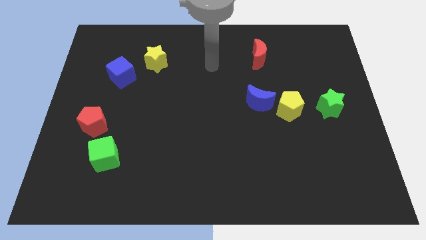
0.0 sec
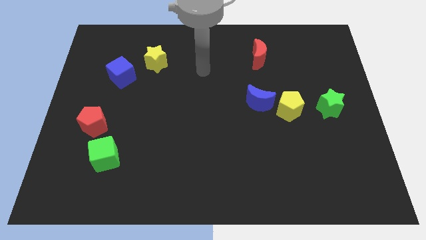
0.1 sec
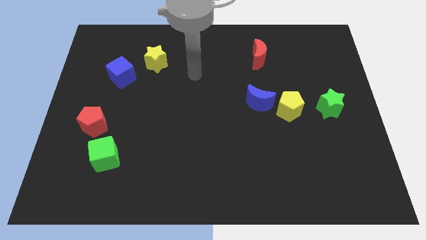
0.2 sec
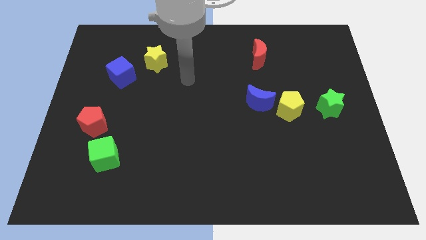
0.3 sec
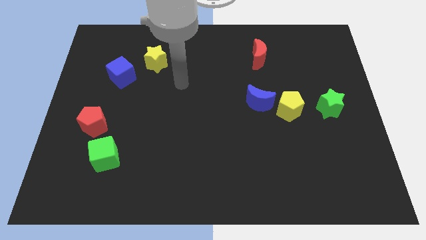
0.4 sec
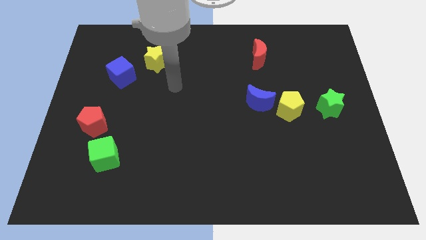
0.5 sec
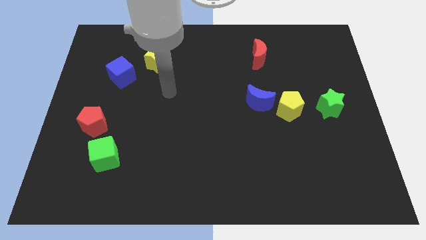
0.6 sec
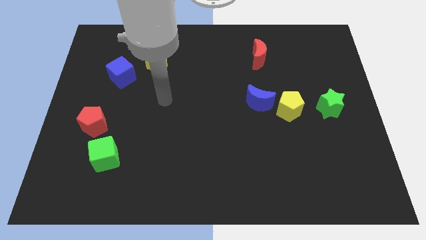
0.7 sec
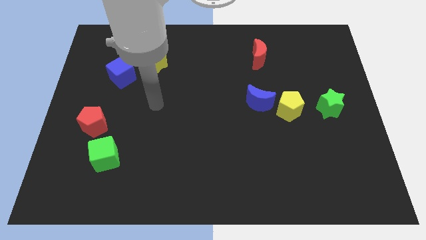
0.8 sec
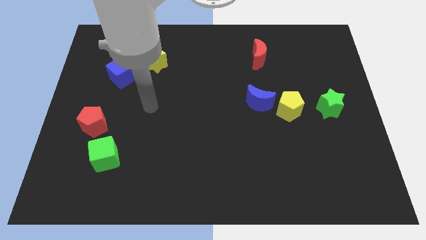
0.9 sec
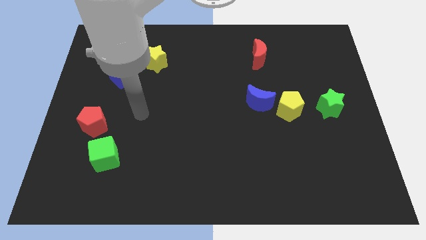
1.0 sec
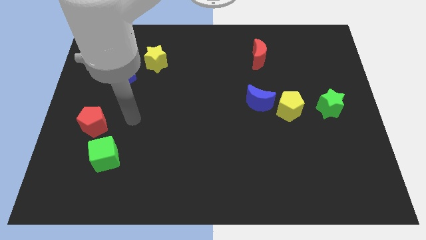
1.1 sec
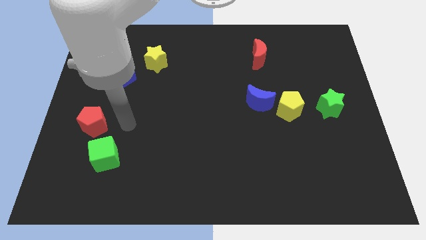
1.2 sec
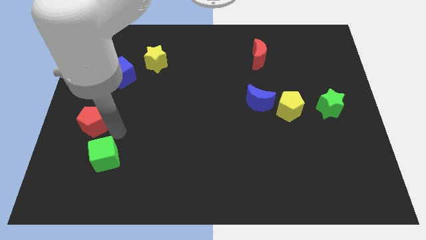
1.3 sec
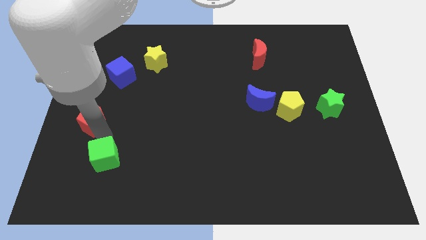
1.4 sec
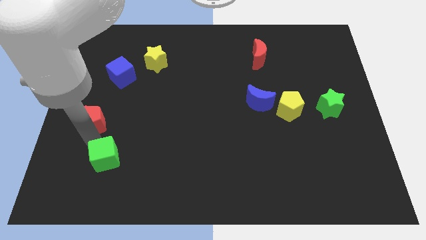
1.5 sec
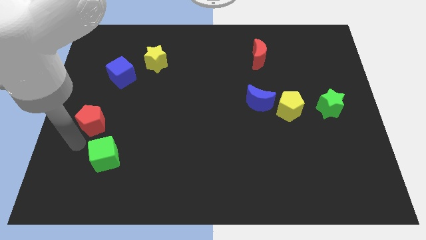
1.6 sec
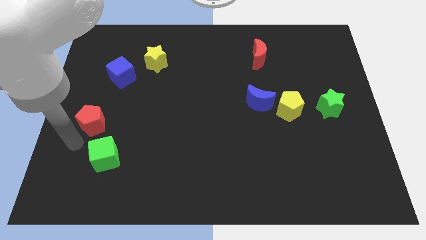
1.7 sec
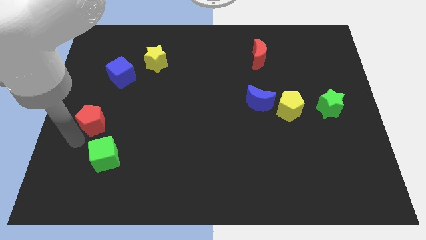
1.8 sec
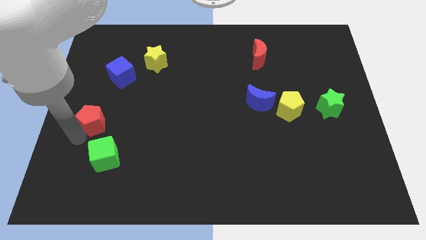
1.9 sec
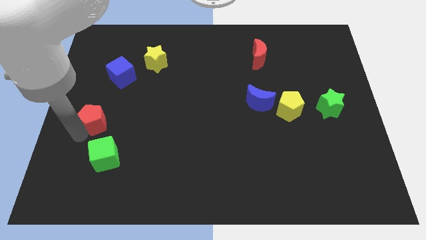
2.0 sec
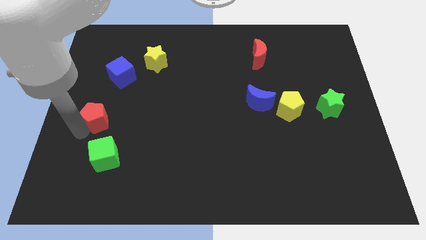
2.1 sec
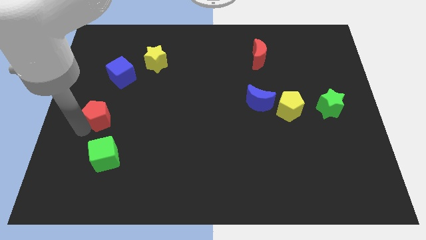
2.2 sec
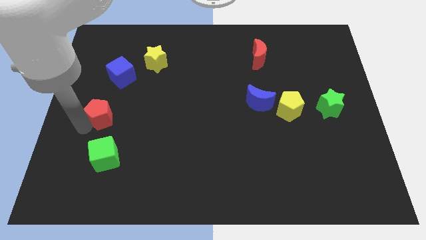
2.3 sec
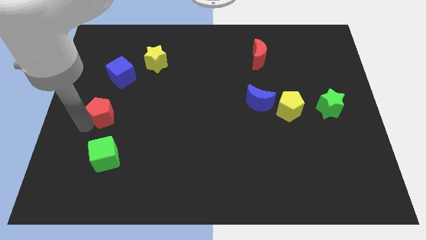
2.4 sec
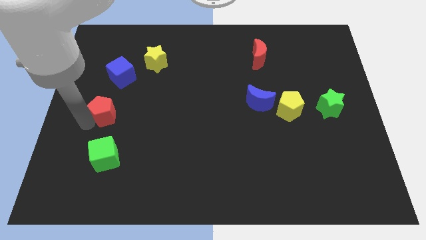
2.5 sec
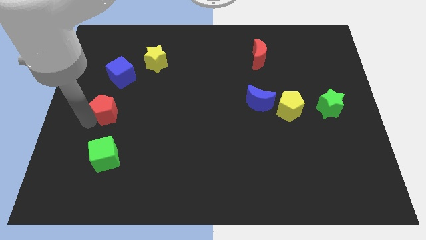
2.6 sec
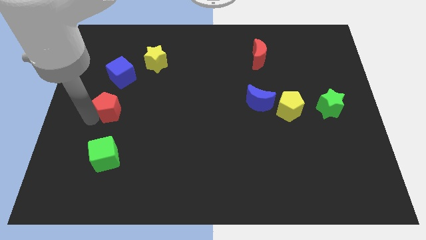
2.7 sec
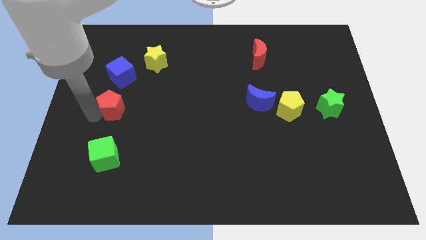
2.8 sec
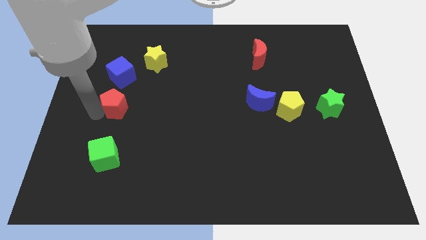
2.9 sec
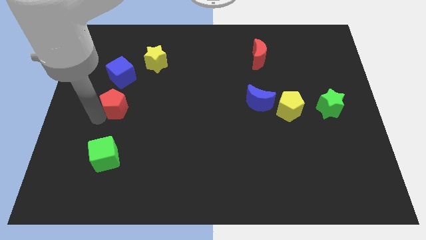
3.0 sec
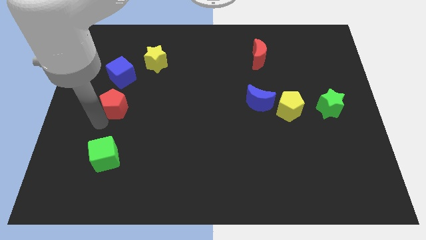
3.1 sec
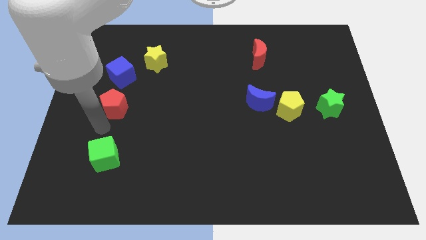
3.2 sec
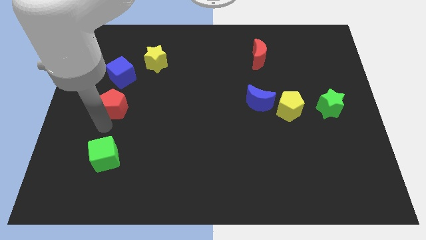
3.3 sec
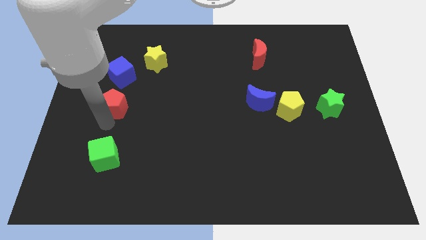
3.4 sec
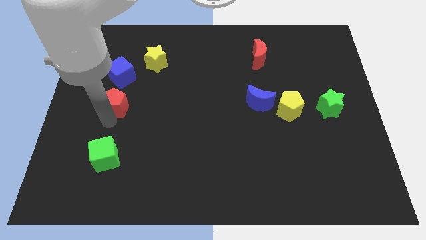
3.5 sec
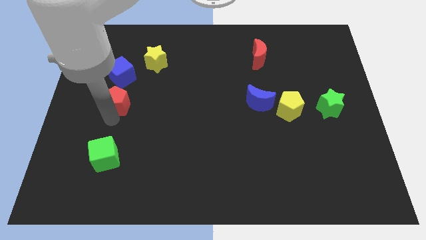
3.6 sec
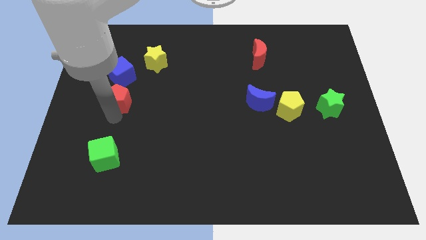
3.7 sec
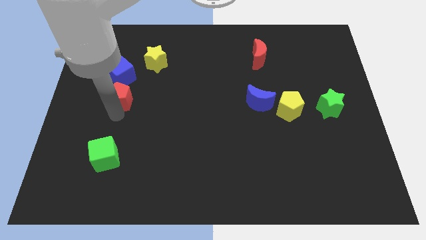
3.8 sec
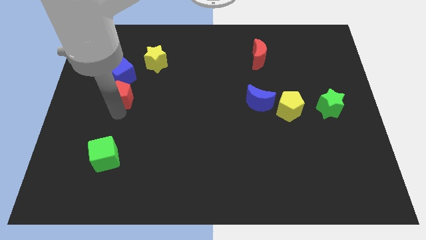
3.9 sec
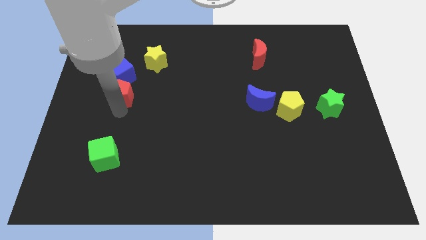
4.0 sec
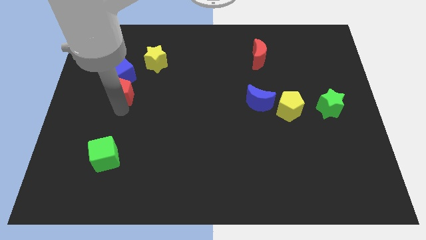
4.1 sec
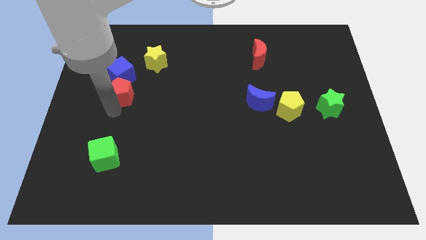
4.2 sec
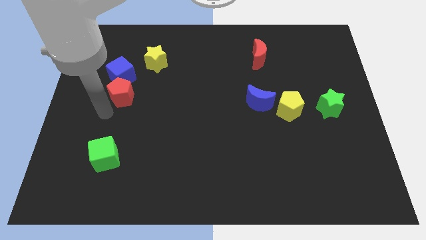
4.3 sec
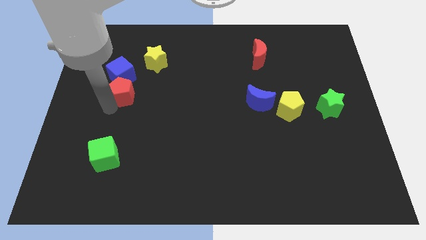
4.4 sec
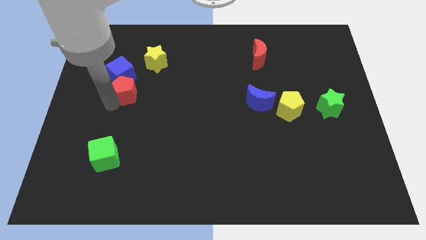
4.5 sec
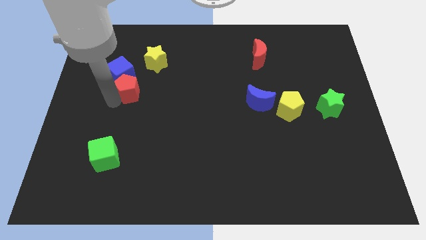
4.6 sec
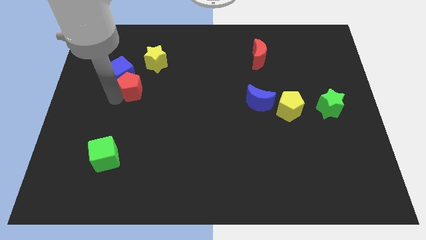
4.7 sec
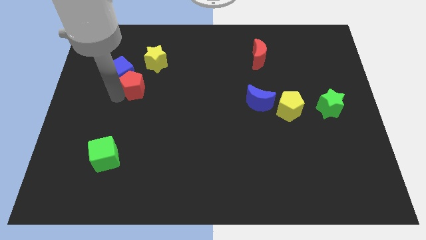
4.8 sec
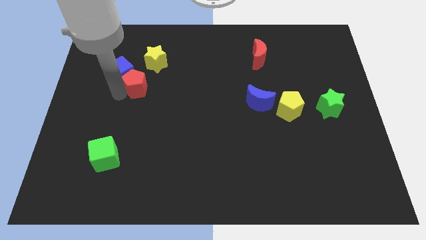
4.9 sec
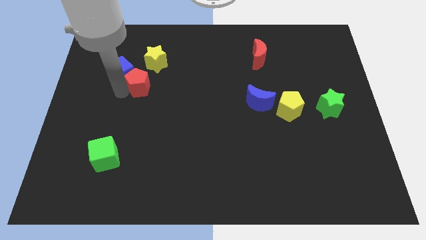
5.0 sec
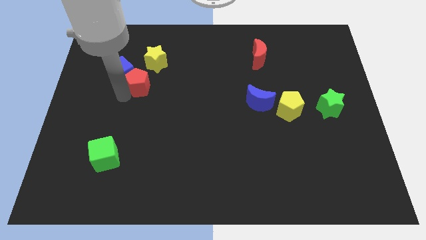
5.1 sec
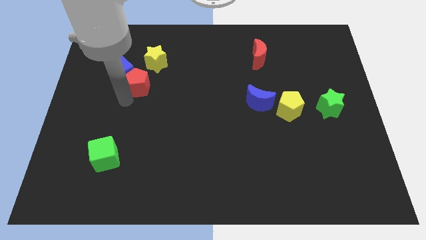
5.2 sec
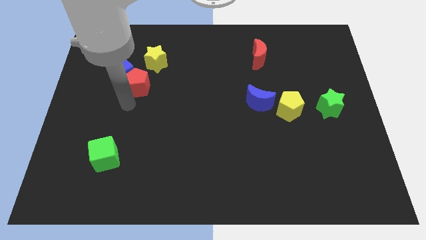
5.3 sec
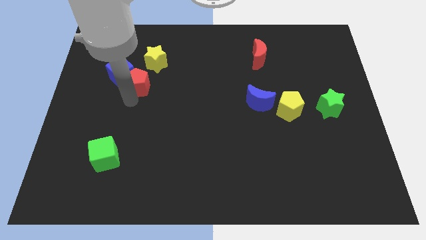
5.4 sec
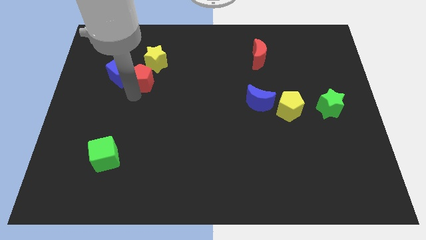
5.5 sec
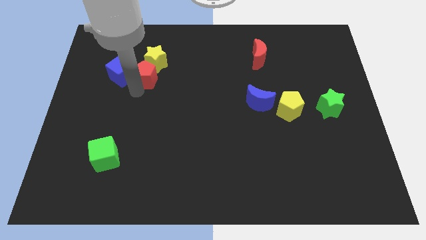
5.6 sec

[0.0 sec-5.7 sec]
move the red pentagon close to the yellow star

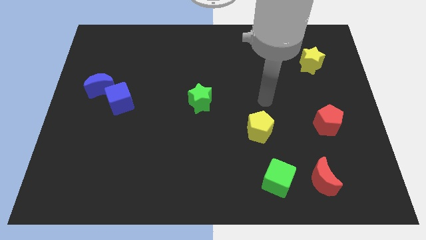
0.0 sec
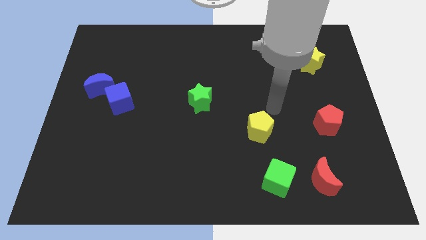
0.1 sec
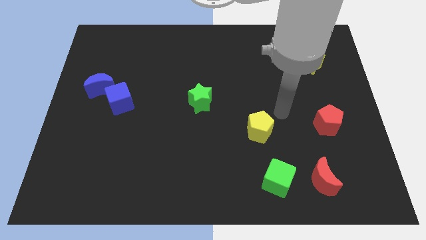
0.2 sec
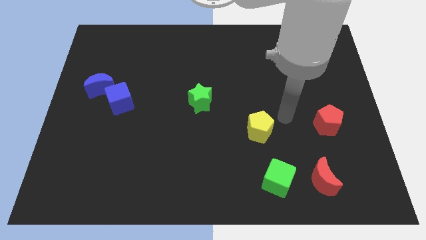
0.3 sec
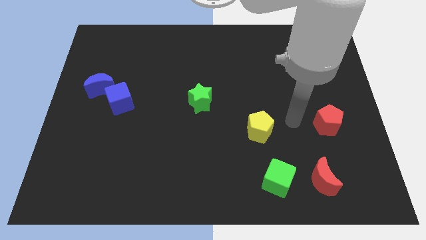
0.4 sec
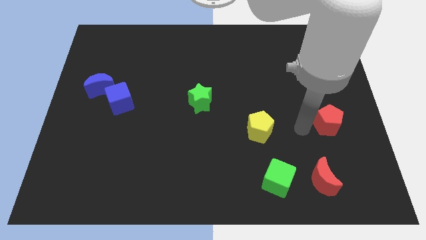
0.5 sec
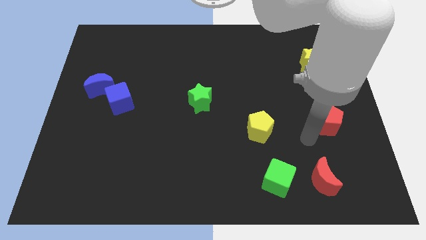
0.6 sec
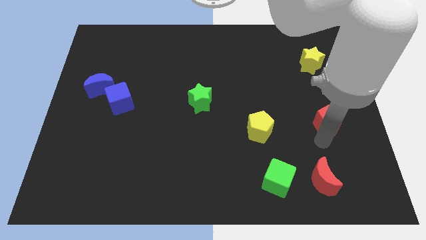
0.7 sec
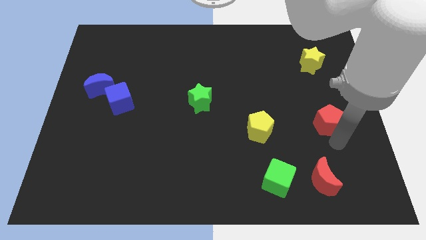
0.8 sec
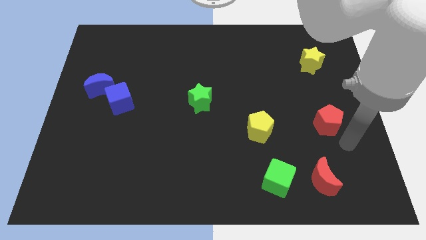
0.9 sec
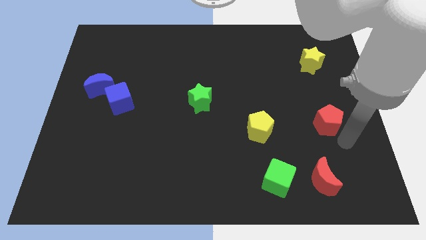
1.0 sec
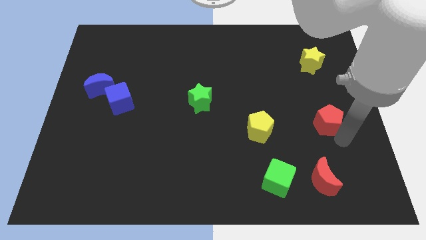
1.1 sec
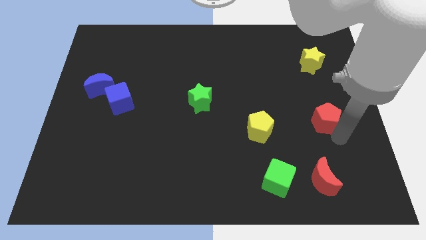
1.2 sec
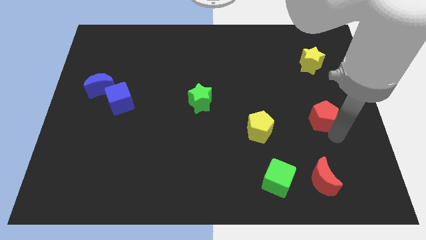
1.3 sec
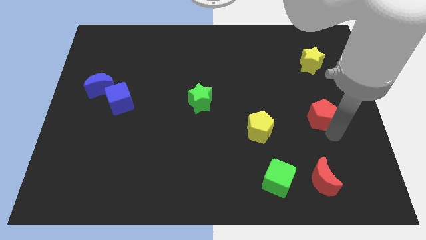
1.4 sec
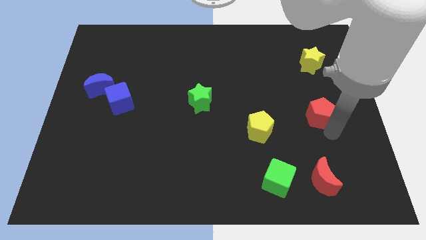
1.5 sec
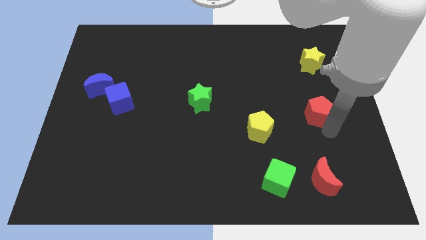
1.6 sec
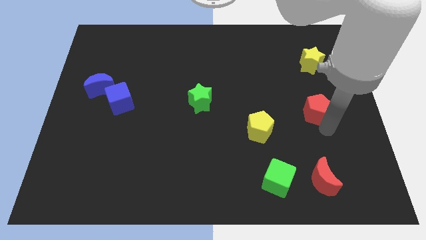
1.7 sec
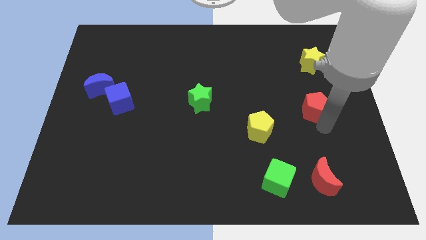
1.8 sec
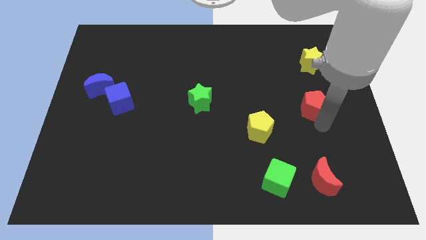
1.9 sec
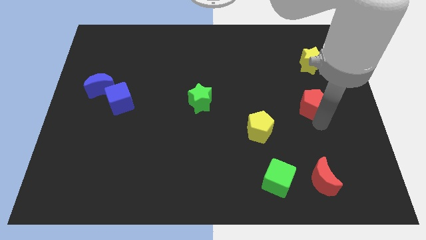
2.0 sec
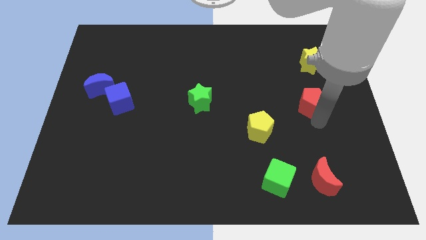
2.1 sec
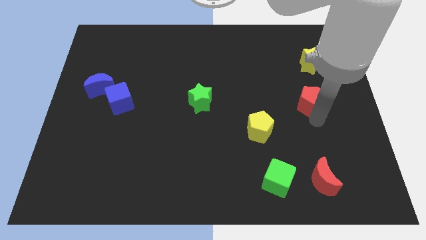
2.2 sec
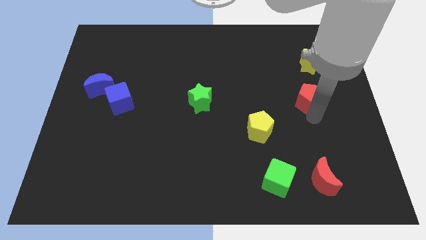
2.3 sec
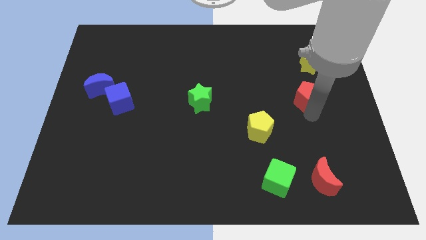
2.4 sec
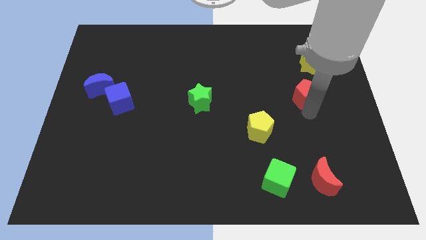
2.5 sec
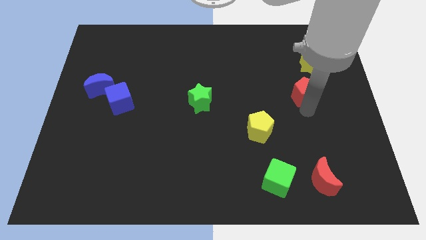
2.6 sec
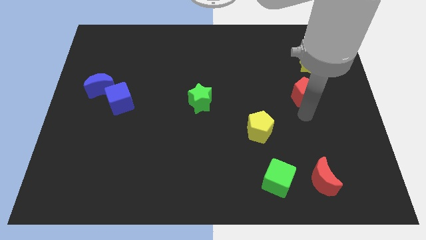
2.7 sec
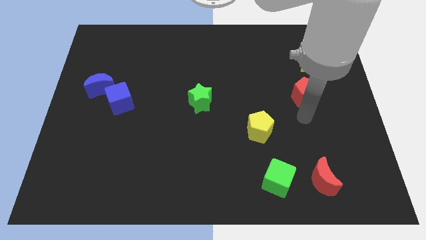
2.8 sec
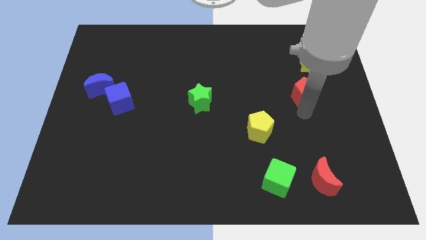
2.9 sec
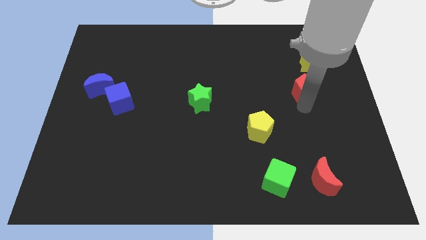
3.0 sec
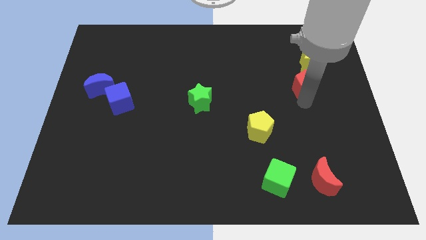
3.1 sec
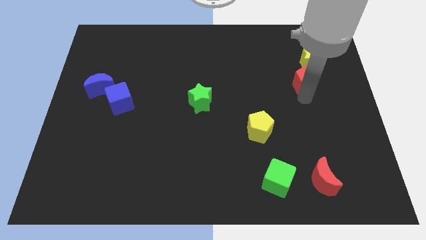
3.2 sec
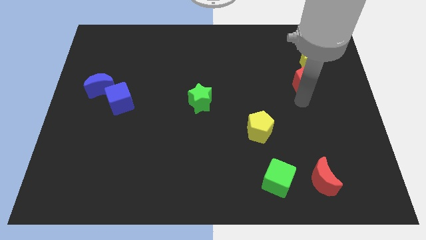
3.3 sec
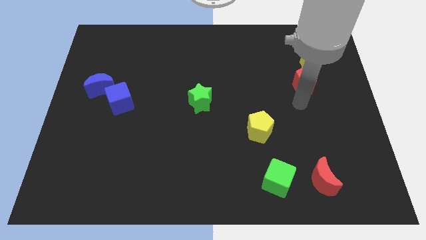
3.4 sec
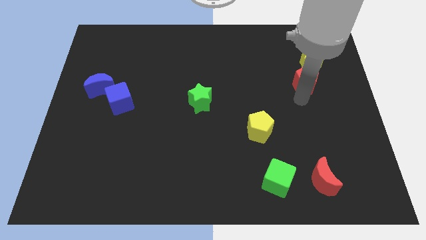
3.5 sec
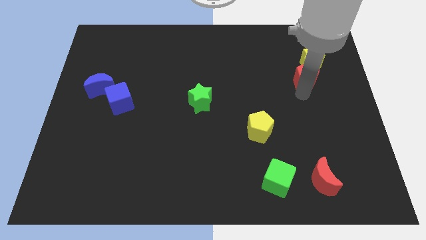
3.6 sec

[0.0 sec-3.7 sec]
move the red pentagon to the yellow star
